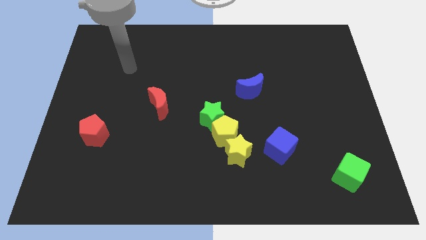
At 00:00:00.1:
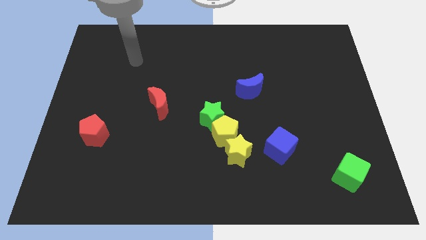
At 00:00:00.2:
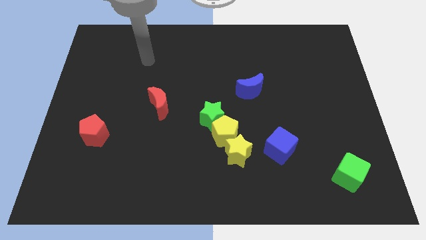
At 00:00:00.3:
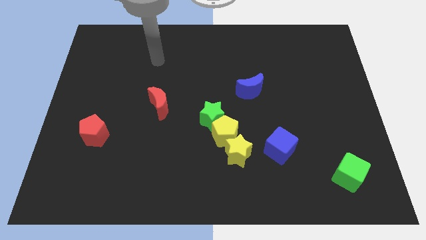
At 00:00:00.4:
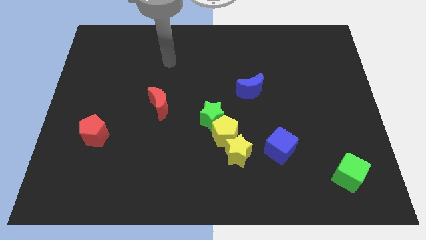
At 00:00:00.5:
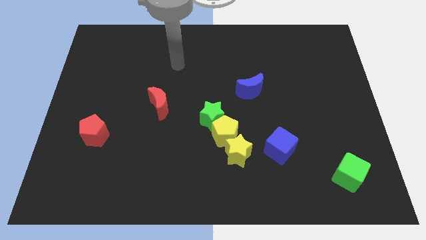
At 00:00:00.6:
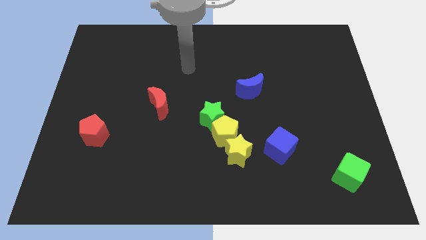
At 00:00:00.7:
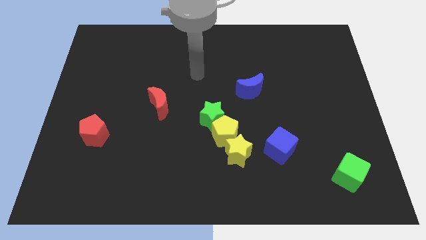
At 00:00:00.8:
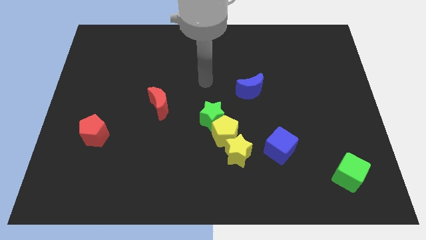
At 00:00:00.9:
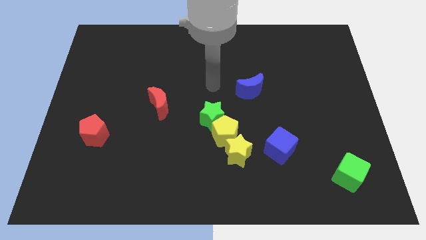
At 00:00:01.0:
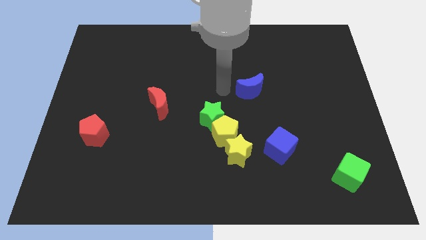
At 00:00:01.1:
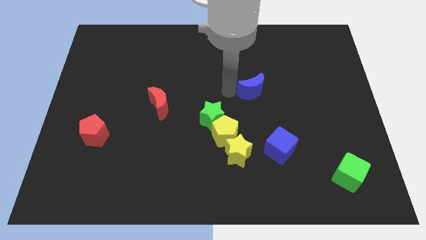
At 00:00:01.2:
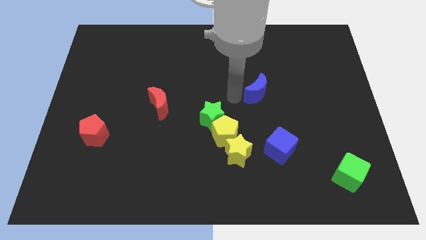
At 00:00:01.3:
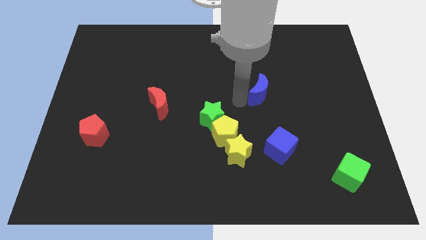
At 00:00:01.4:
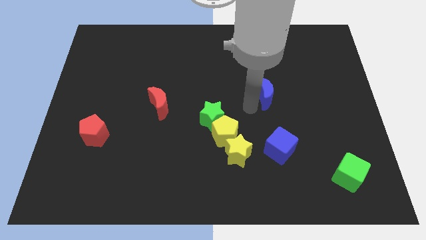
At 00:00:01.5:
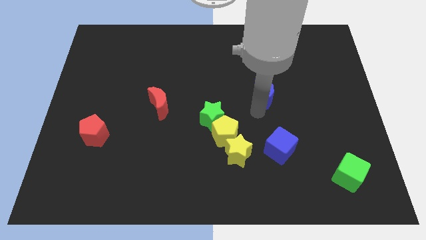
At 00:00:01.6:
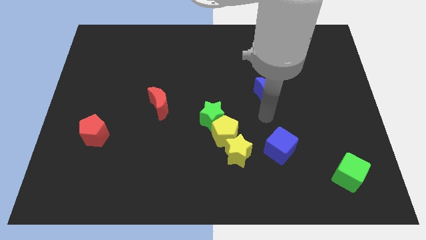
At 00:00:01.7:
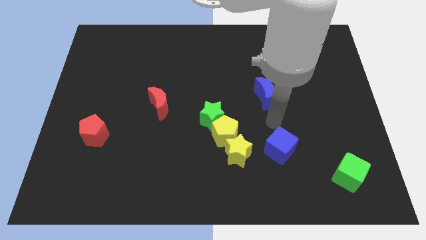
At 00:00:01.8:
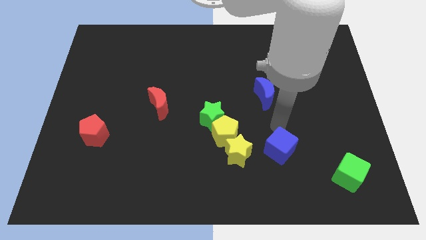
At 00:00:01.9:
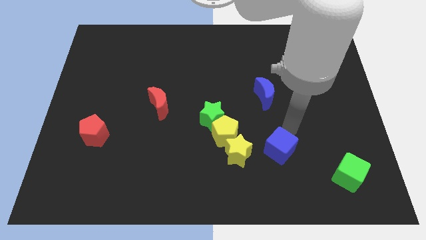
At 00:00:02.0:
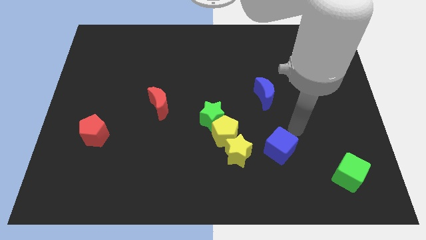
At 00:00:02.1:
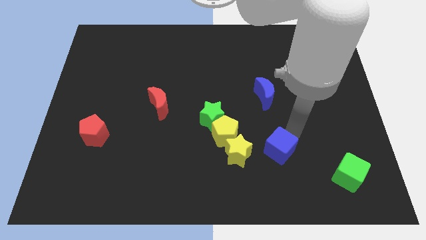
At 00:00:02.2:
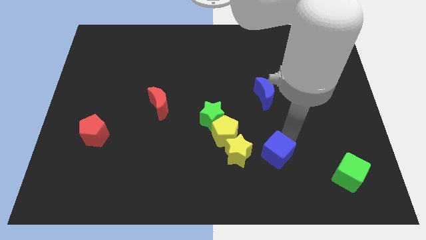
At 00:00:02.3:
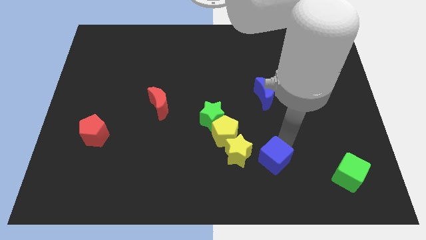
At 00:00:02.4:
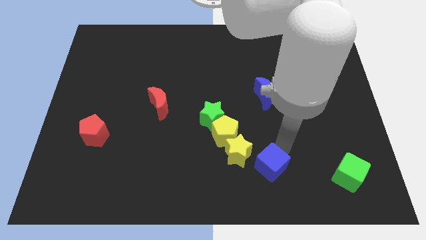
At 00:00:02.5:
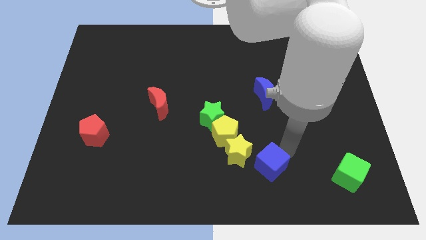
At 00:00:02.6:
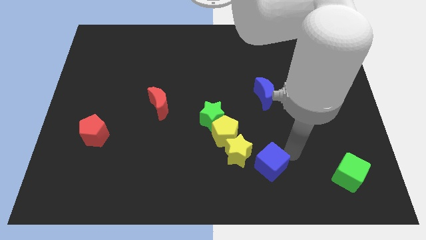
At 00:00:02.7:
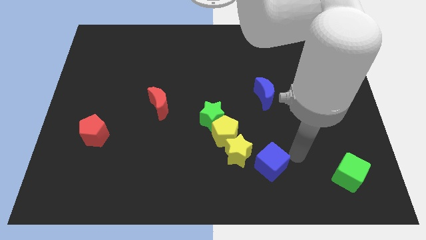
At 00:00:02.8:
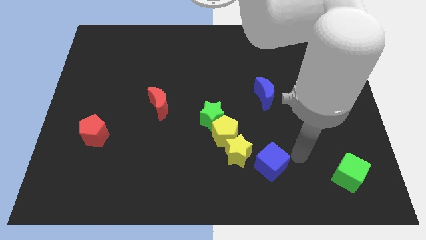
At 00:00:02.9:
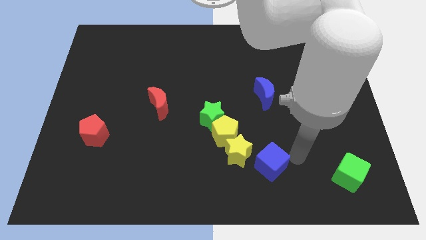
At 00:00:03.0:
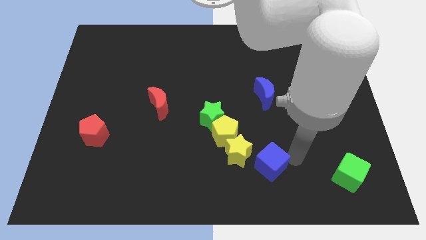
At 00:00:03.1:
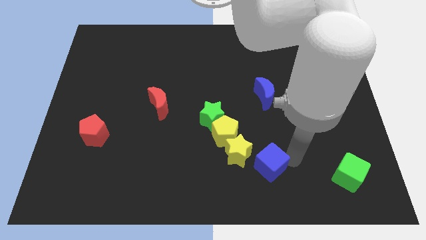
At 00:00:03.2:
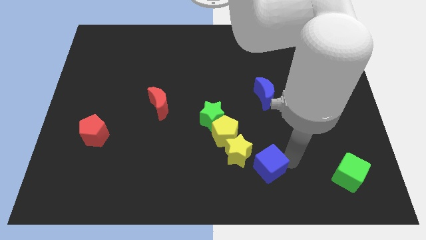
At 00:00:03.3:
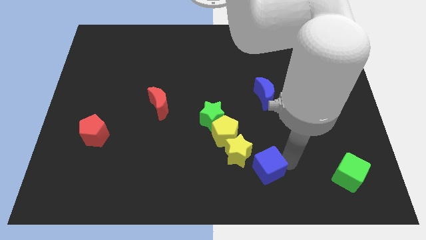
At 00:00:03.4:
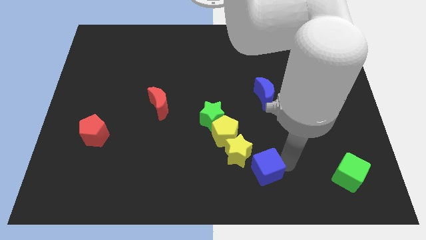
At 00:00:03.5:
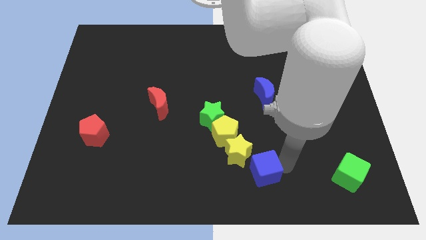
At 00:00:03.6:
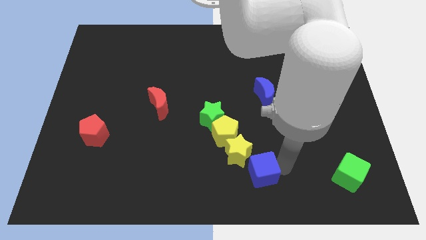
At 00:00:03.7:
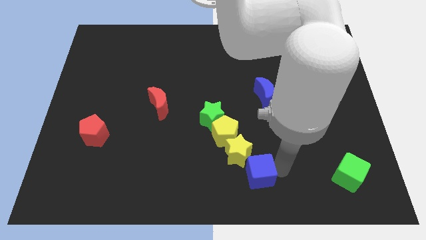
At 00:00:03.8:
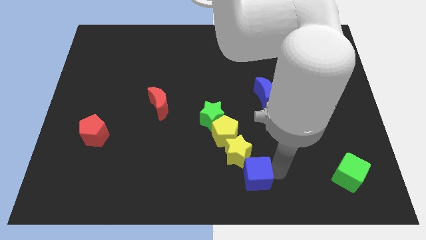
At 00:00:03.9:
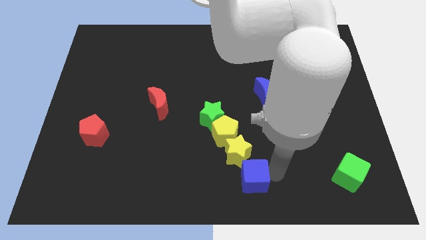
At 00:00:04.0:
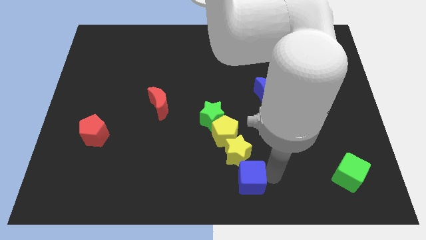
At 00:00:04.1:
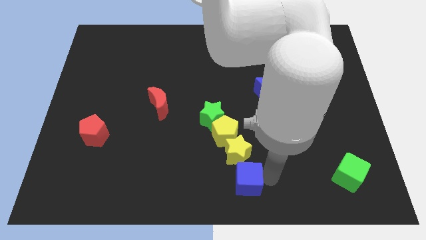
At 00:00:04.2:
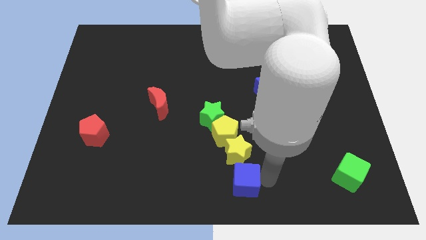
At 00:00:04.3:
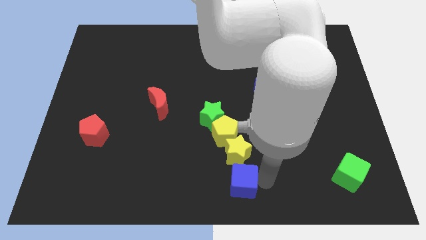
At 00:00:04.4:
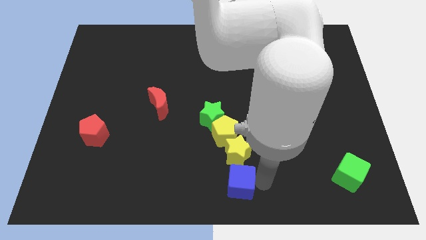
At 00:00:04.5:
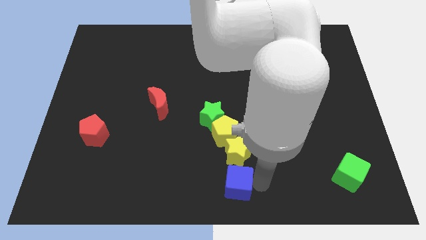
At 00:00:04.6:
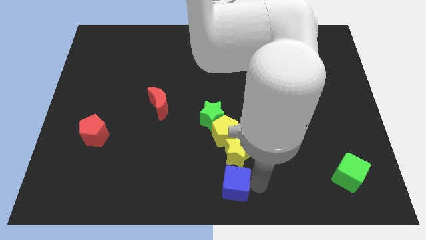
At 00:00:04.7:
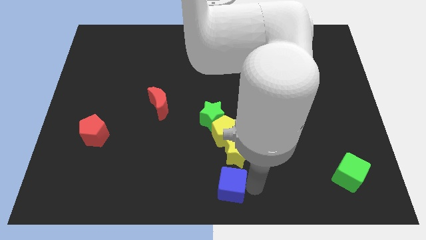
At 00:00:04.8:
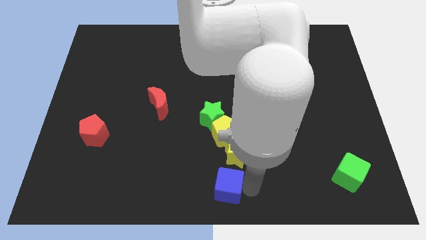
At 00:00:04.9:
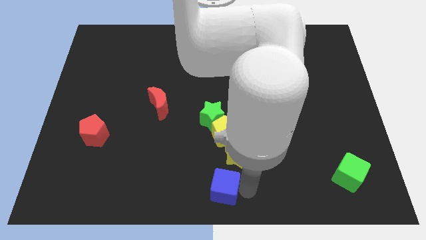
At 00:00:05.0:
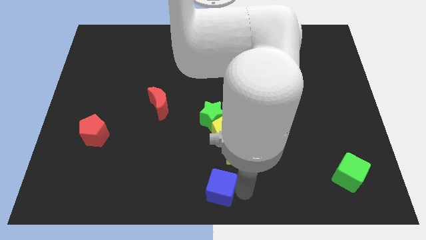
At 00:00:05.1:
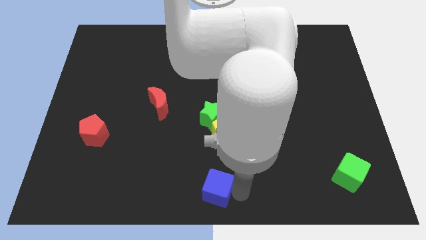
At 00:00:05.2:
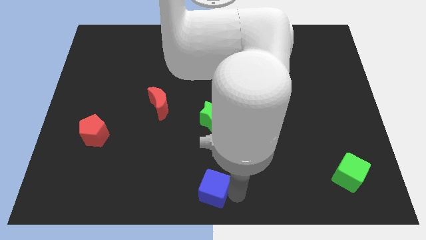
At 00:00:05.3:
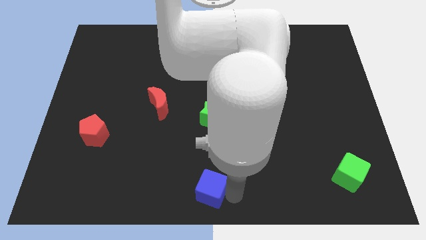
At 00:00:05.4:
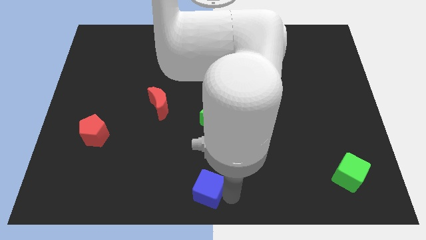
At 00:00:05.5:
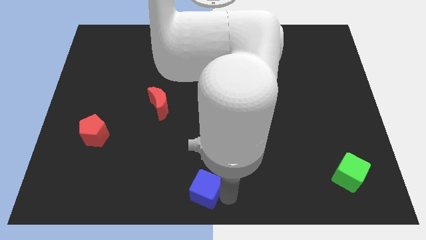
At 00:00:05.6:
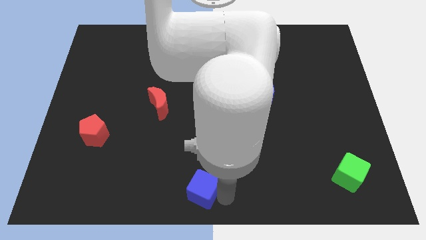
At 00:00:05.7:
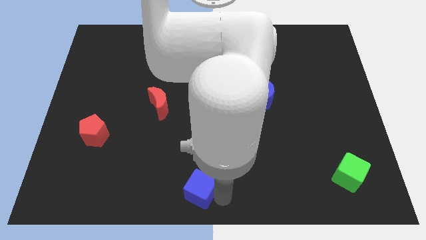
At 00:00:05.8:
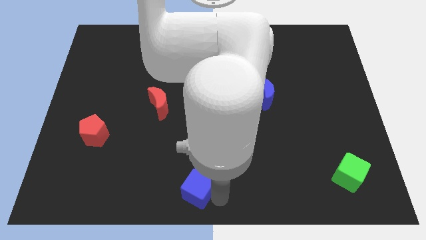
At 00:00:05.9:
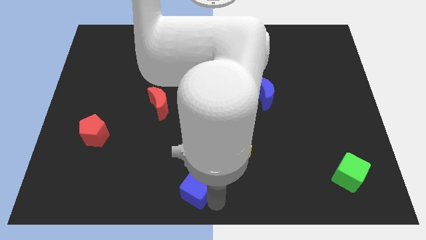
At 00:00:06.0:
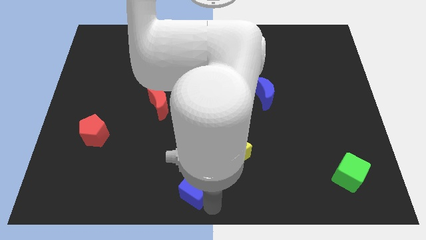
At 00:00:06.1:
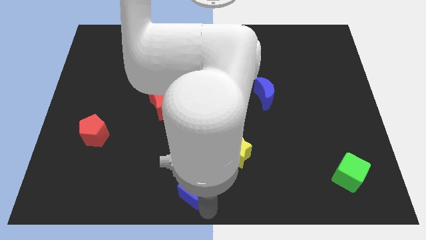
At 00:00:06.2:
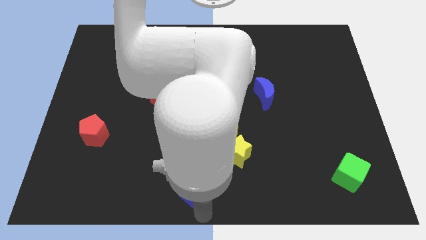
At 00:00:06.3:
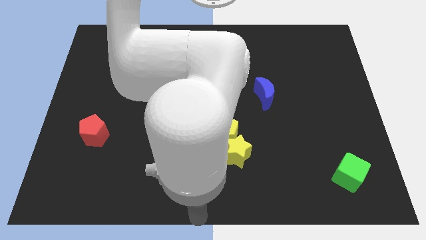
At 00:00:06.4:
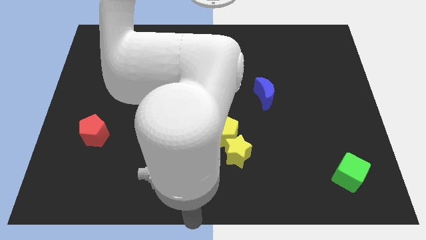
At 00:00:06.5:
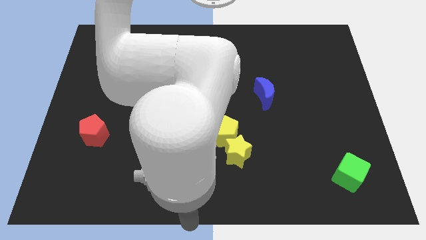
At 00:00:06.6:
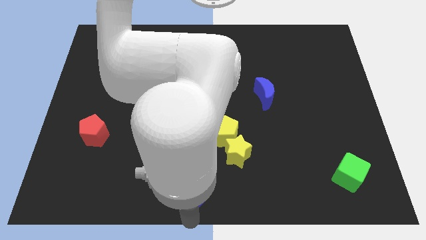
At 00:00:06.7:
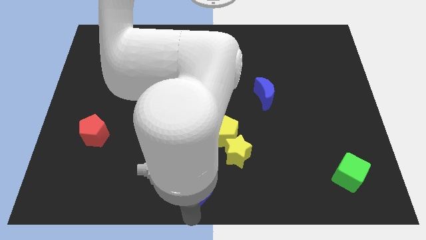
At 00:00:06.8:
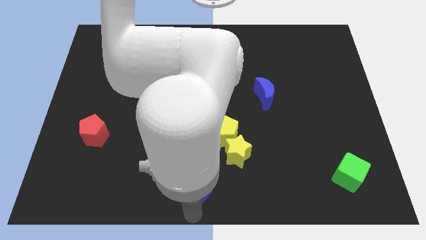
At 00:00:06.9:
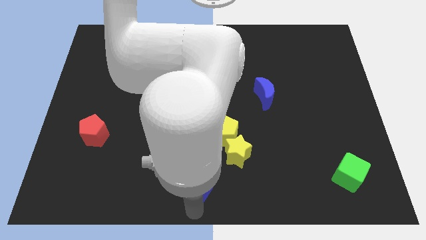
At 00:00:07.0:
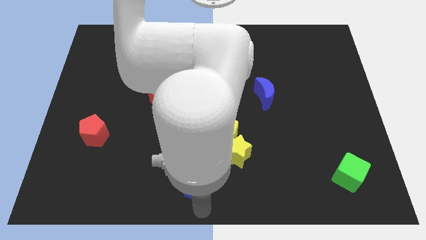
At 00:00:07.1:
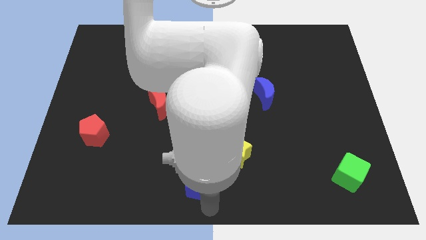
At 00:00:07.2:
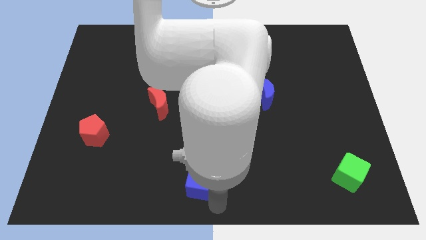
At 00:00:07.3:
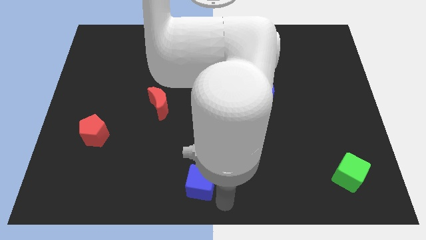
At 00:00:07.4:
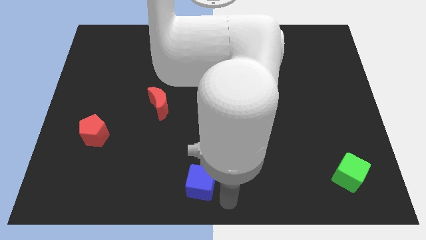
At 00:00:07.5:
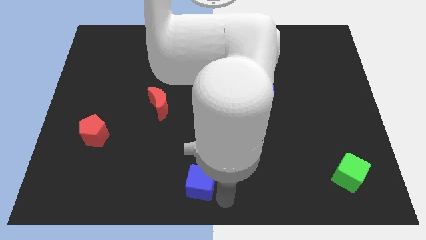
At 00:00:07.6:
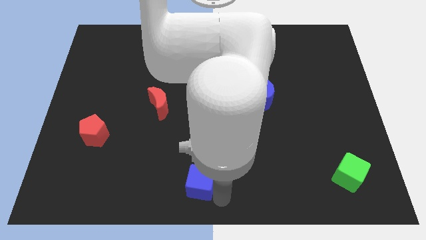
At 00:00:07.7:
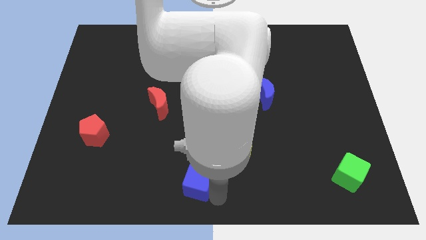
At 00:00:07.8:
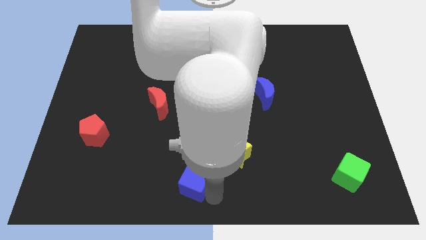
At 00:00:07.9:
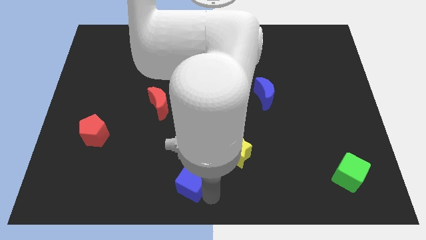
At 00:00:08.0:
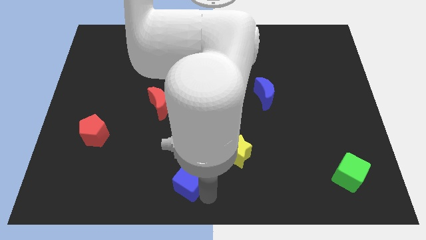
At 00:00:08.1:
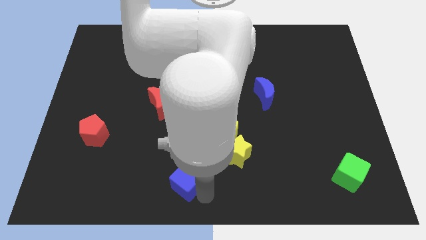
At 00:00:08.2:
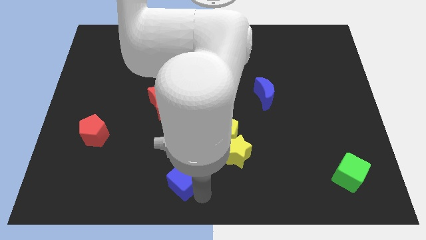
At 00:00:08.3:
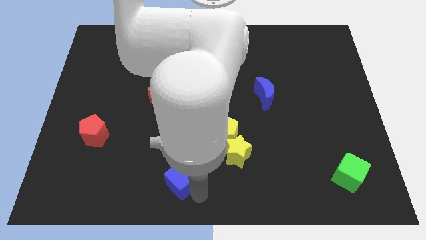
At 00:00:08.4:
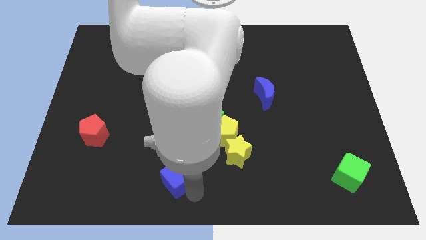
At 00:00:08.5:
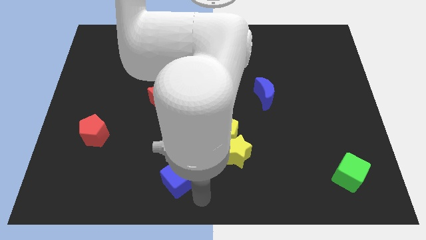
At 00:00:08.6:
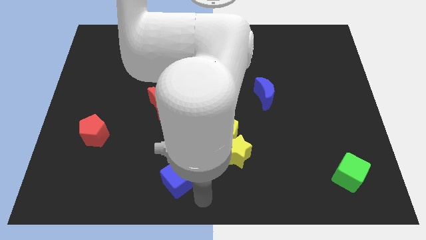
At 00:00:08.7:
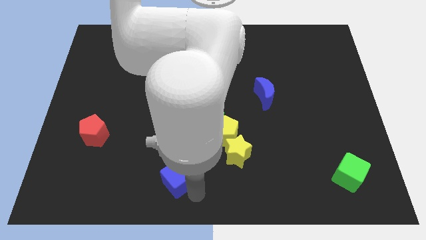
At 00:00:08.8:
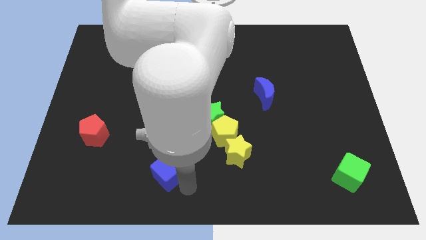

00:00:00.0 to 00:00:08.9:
move the blue cube left
